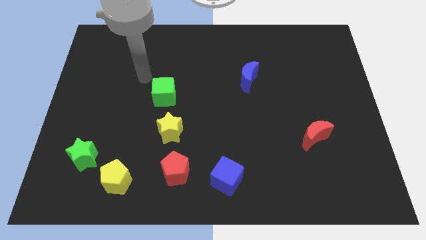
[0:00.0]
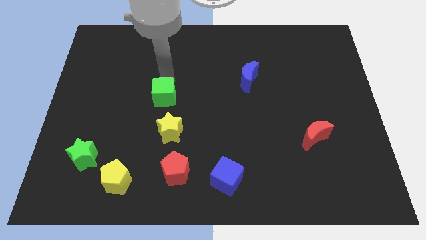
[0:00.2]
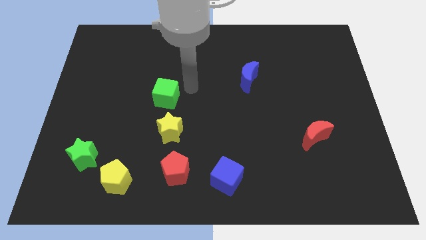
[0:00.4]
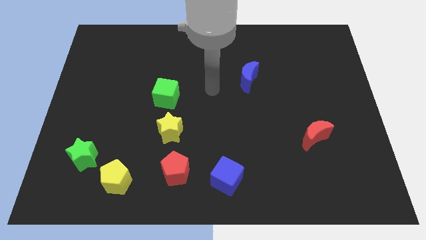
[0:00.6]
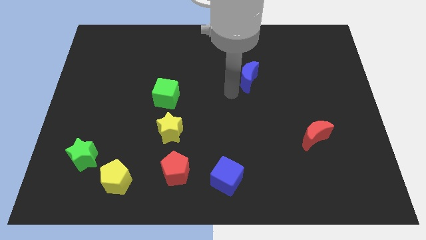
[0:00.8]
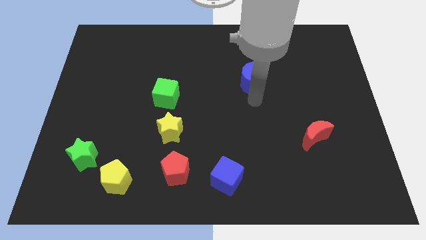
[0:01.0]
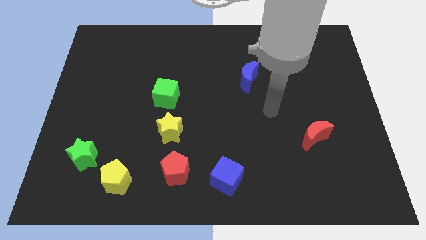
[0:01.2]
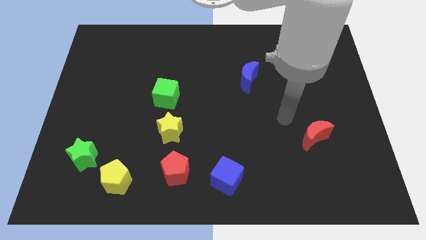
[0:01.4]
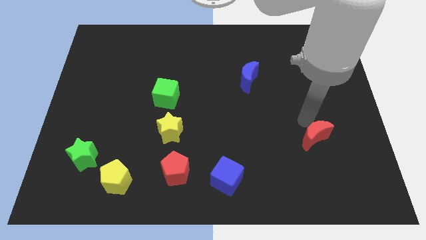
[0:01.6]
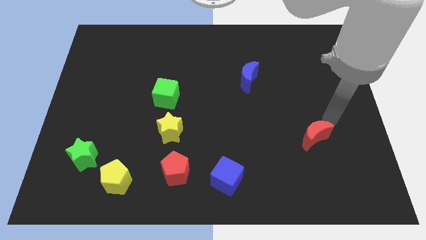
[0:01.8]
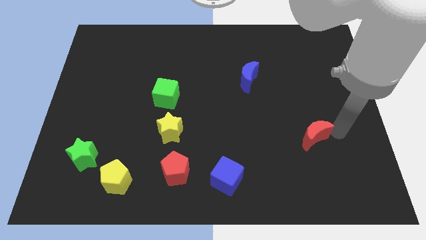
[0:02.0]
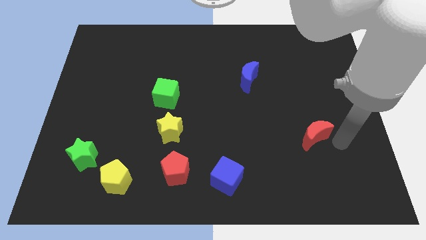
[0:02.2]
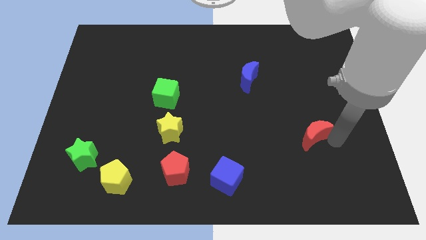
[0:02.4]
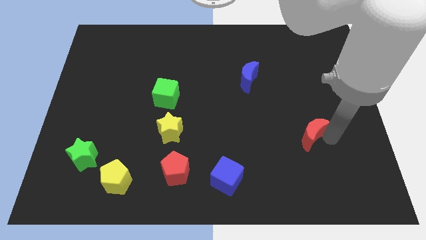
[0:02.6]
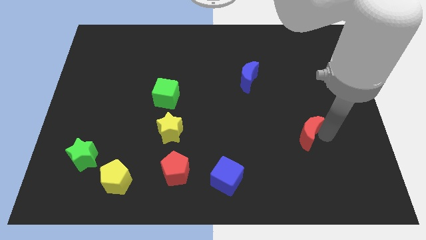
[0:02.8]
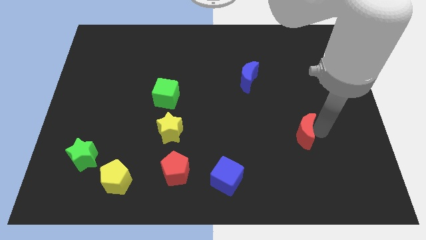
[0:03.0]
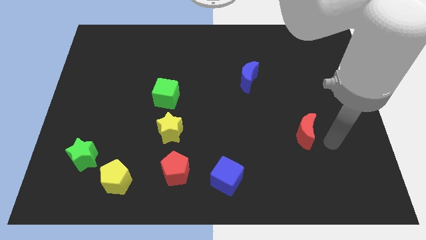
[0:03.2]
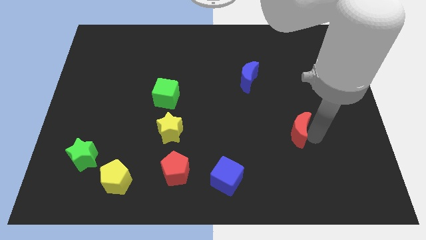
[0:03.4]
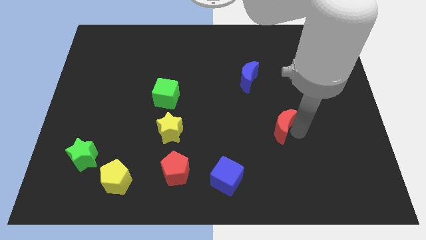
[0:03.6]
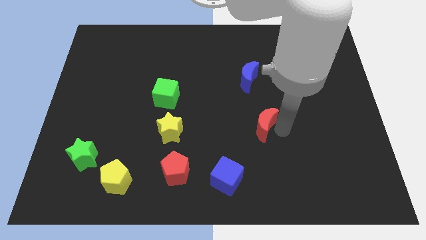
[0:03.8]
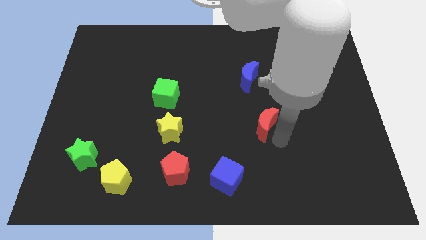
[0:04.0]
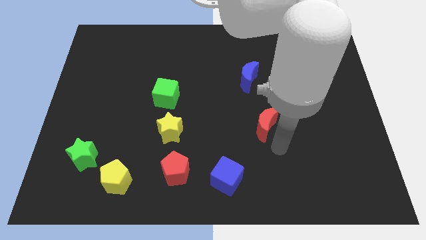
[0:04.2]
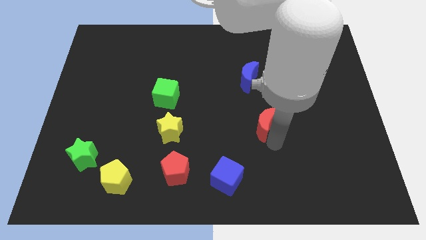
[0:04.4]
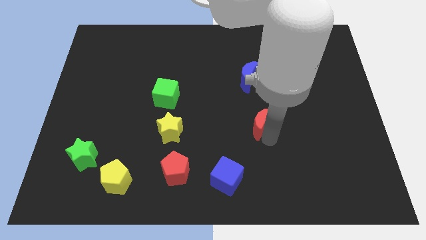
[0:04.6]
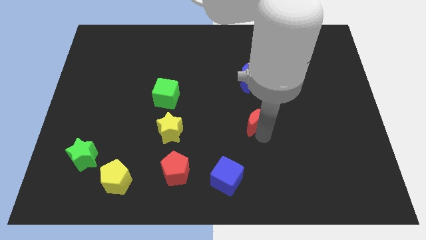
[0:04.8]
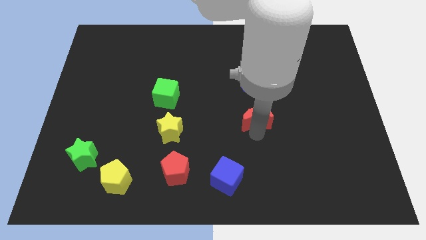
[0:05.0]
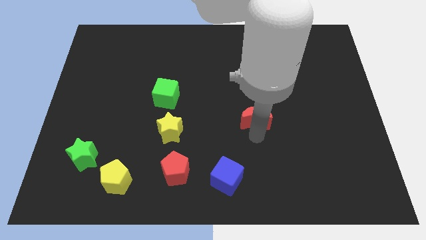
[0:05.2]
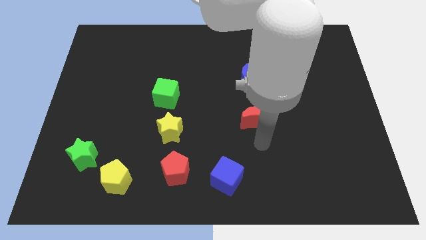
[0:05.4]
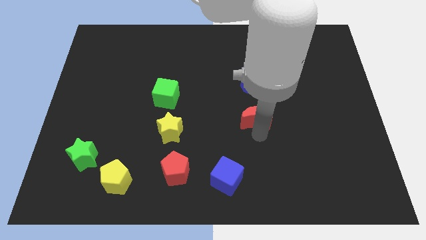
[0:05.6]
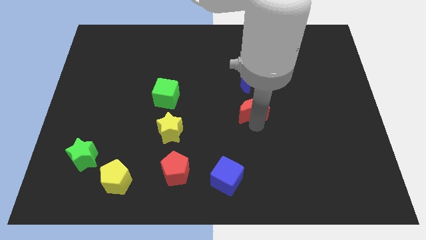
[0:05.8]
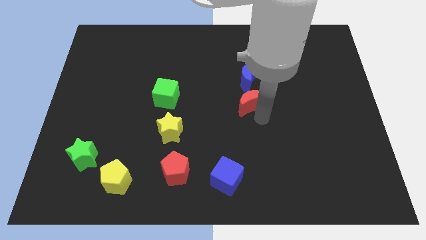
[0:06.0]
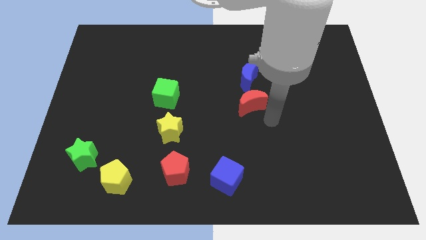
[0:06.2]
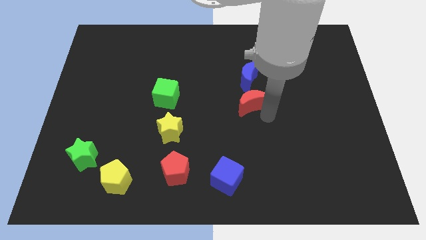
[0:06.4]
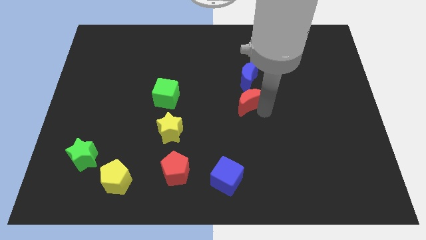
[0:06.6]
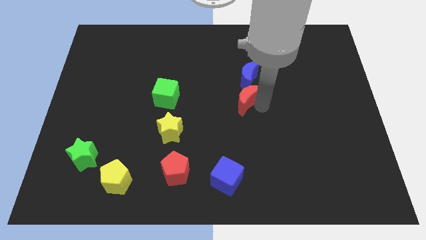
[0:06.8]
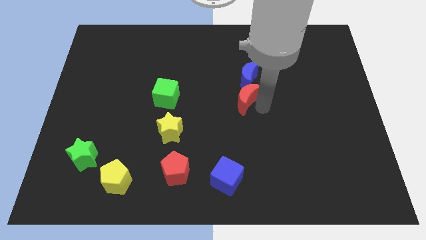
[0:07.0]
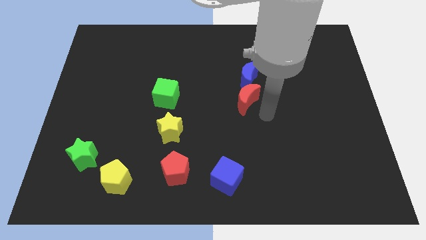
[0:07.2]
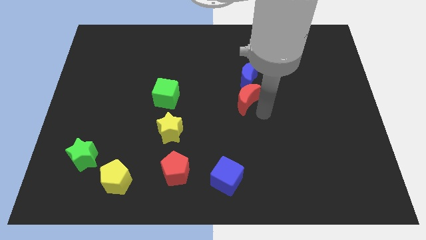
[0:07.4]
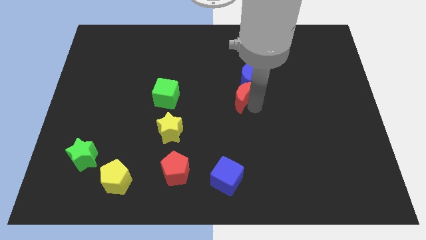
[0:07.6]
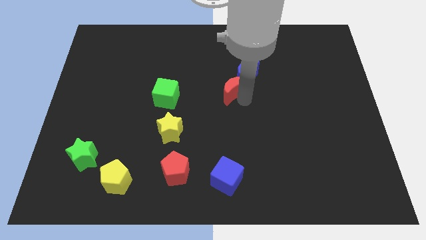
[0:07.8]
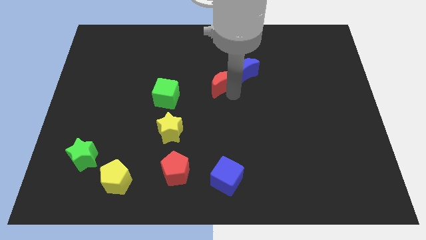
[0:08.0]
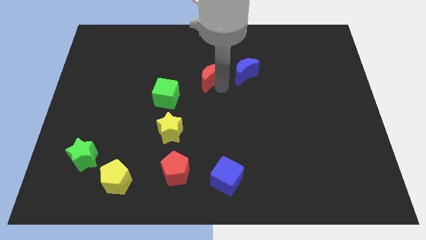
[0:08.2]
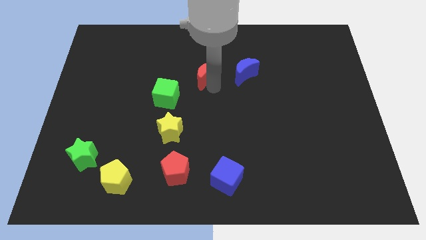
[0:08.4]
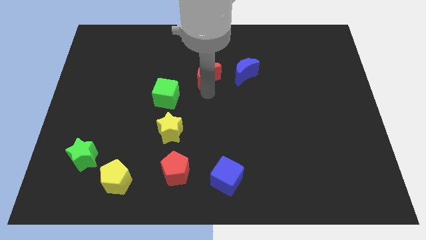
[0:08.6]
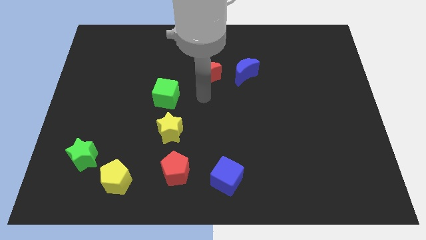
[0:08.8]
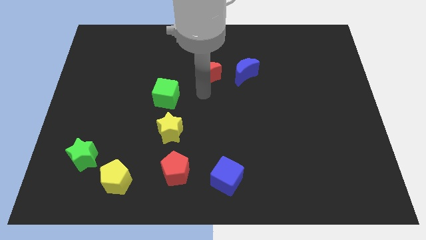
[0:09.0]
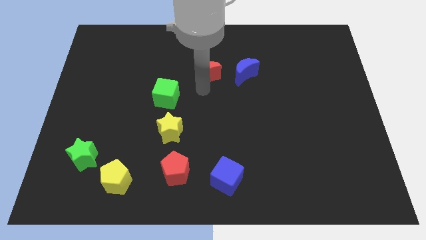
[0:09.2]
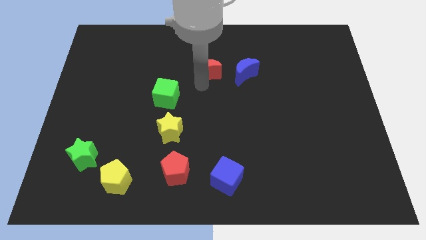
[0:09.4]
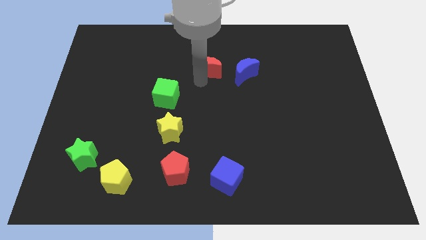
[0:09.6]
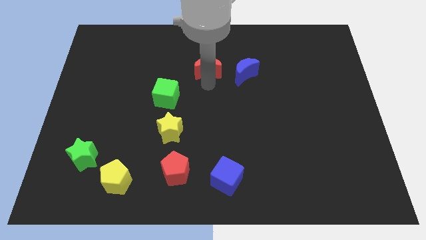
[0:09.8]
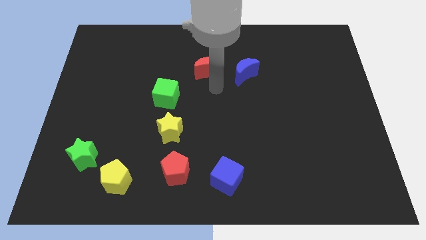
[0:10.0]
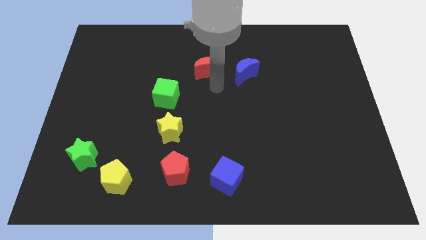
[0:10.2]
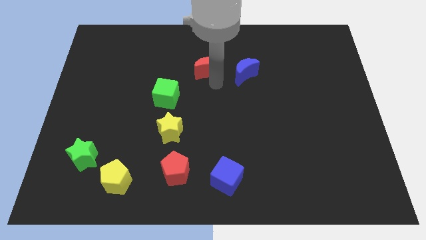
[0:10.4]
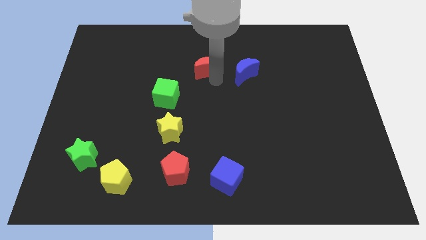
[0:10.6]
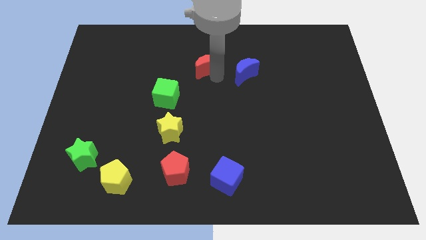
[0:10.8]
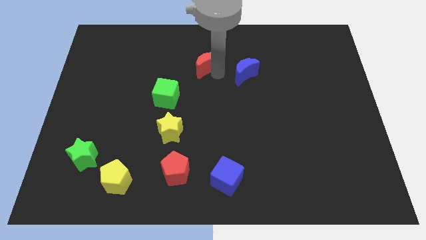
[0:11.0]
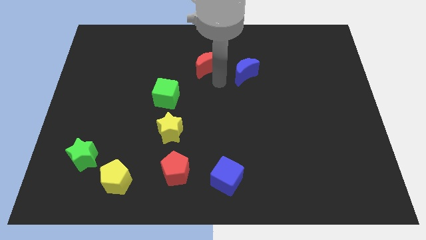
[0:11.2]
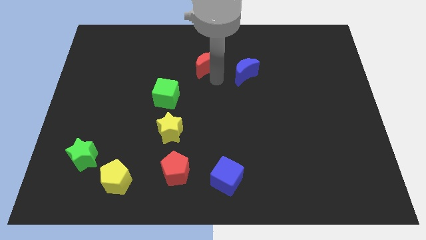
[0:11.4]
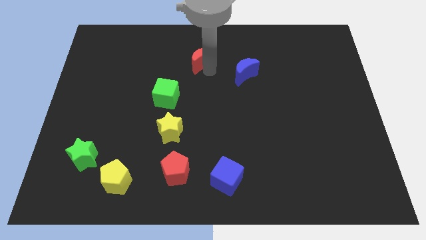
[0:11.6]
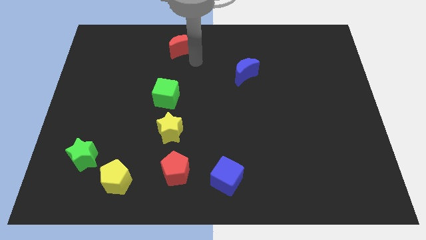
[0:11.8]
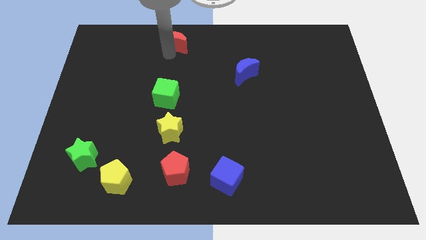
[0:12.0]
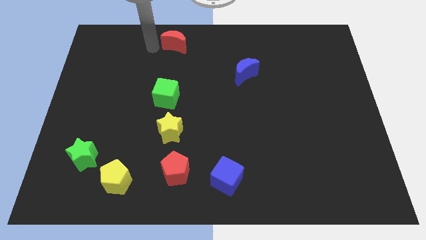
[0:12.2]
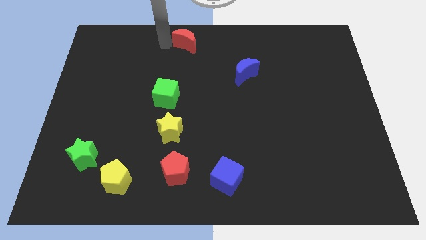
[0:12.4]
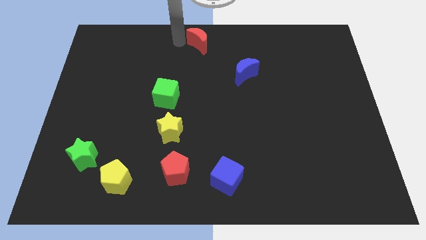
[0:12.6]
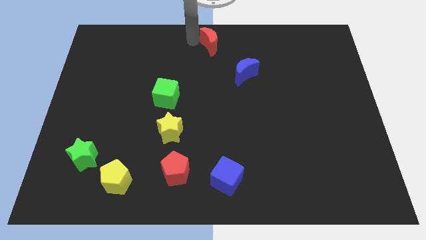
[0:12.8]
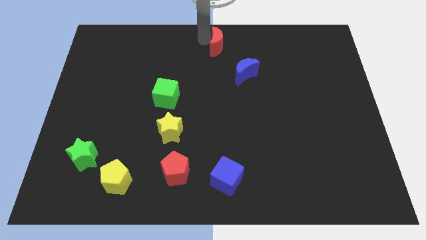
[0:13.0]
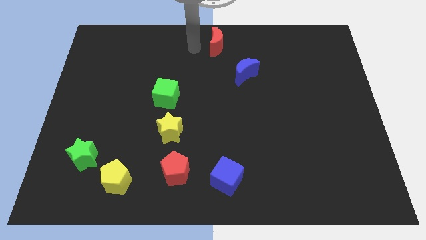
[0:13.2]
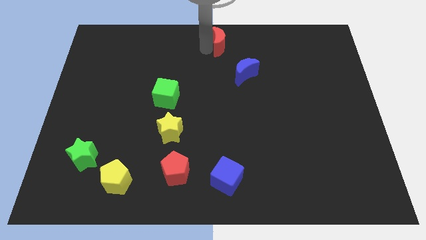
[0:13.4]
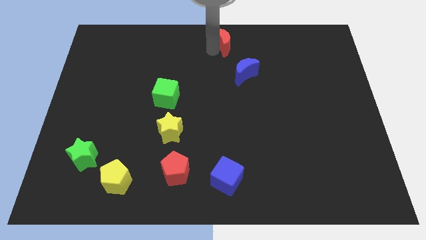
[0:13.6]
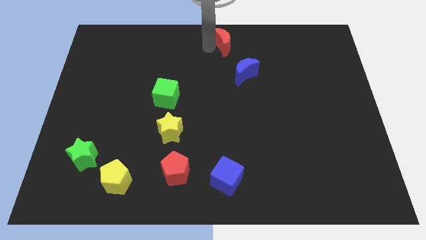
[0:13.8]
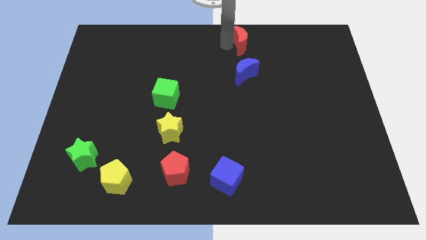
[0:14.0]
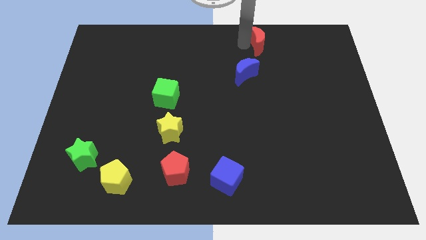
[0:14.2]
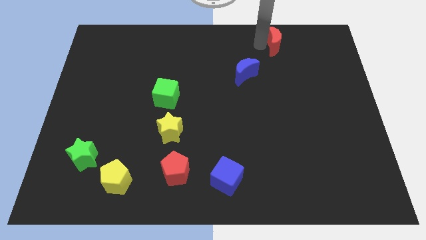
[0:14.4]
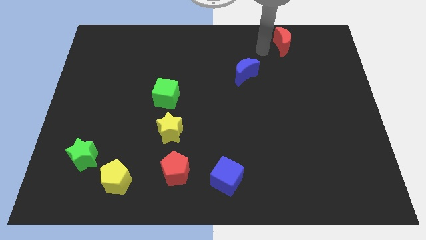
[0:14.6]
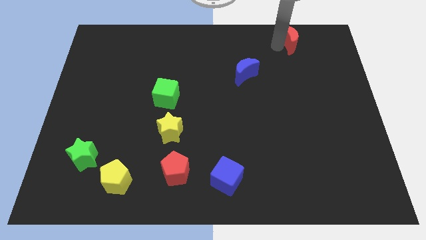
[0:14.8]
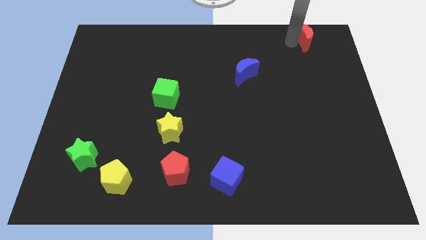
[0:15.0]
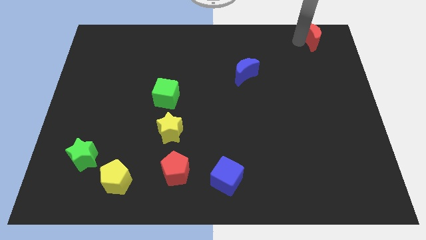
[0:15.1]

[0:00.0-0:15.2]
slide the red moon to the upper right corner
